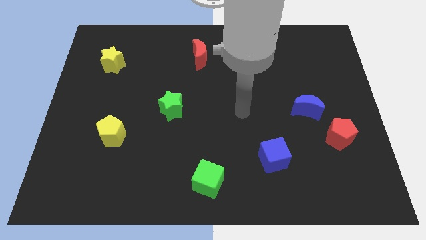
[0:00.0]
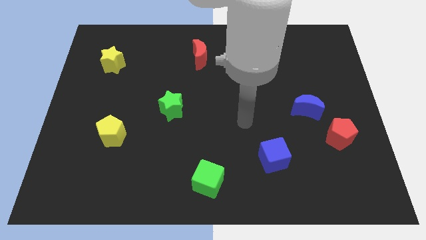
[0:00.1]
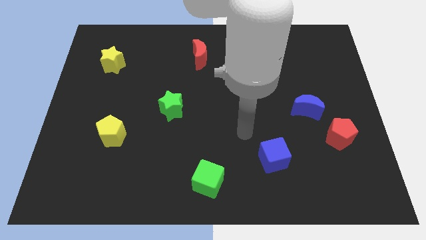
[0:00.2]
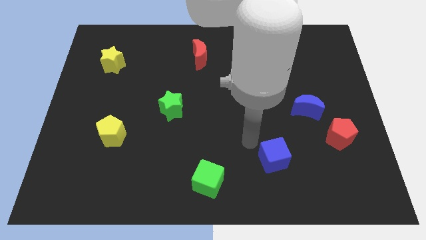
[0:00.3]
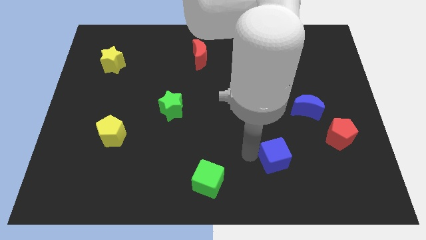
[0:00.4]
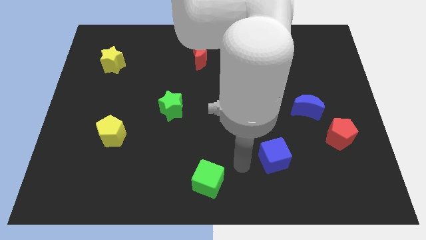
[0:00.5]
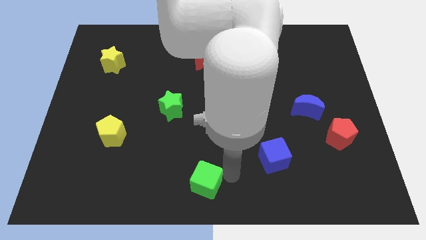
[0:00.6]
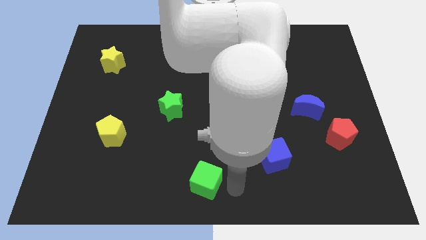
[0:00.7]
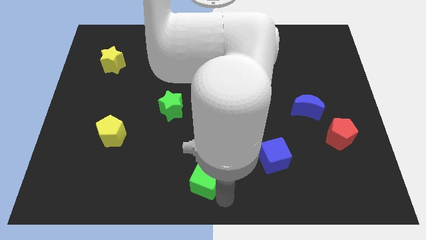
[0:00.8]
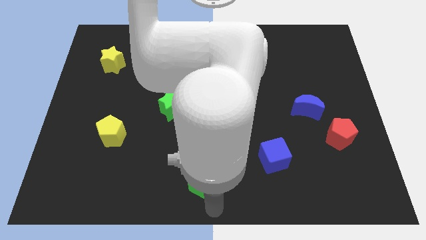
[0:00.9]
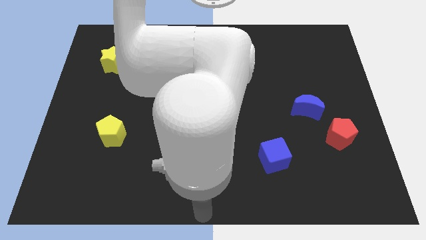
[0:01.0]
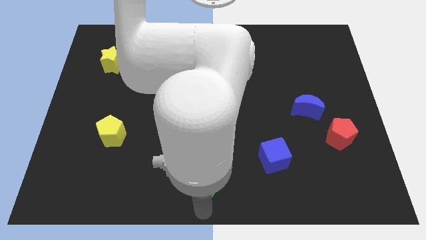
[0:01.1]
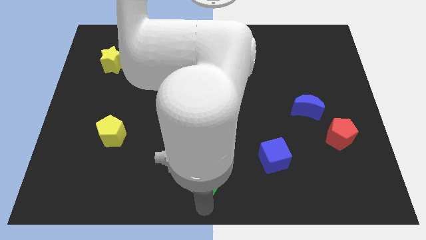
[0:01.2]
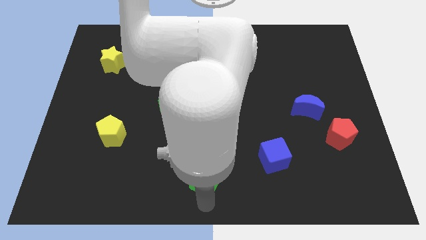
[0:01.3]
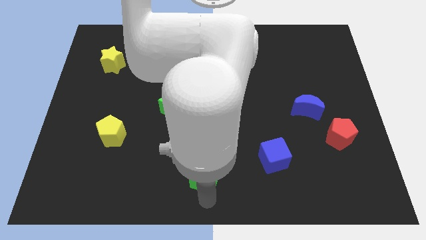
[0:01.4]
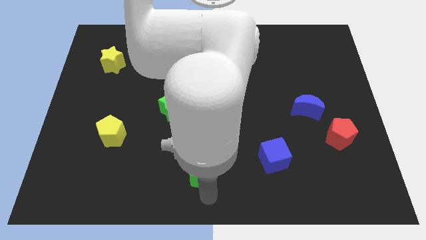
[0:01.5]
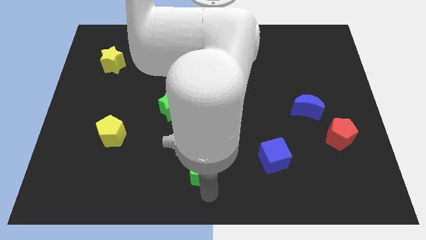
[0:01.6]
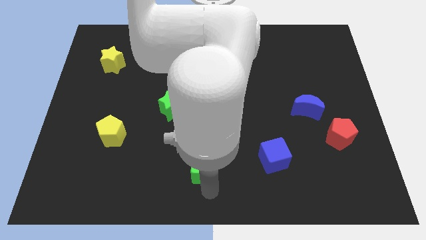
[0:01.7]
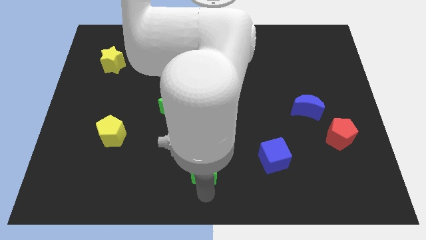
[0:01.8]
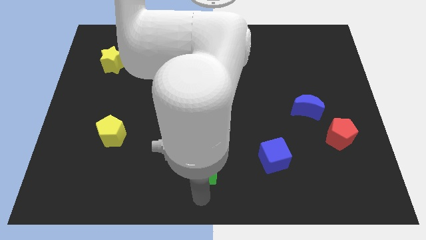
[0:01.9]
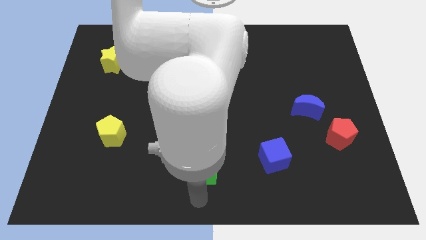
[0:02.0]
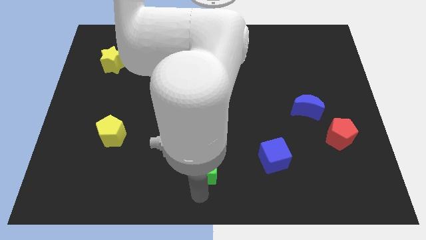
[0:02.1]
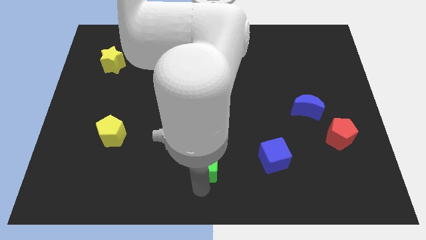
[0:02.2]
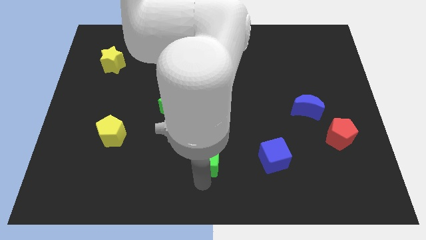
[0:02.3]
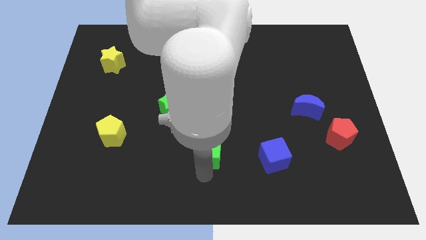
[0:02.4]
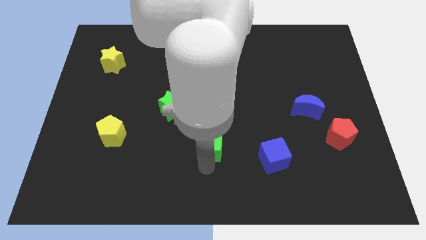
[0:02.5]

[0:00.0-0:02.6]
slide the green cube upwards slightly

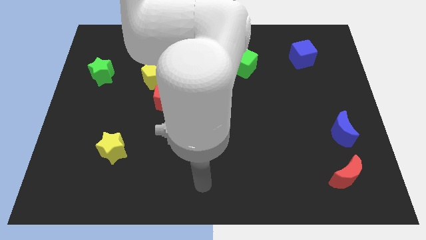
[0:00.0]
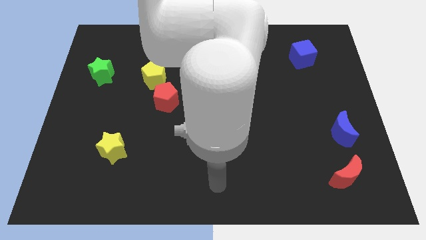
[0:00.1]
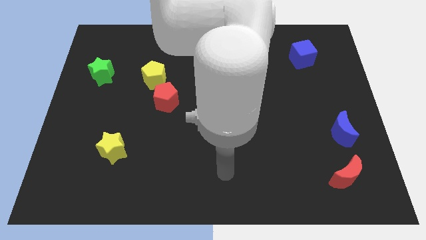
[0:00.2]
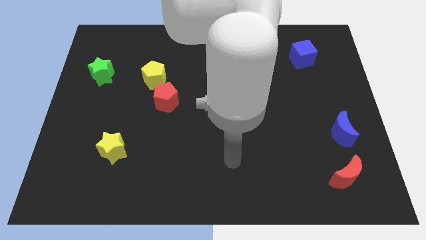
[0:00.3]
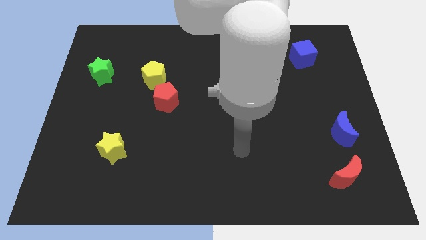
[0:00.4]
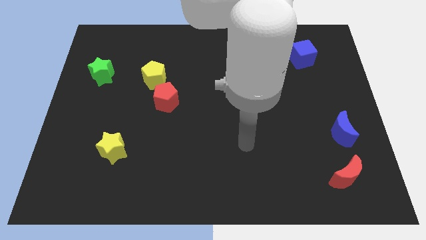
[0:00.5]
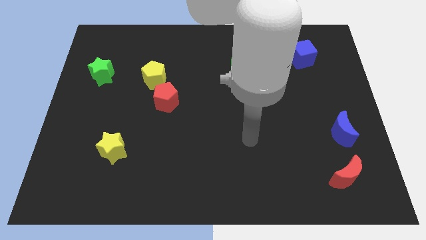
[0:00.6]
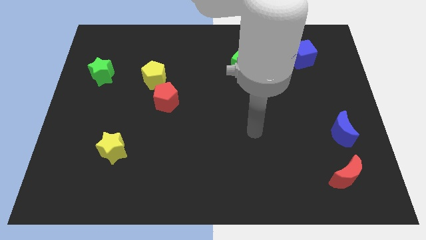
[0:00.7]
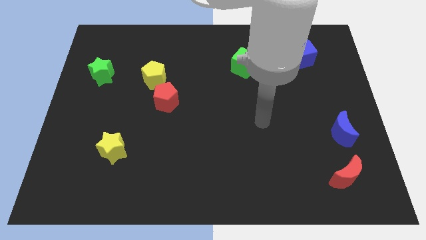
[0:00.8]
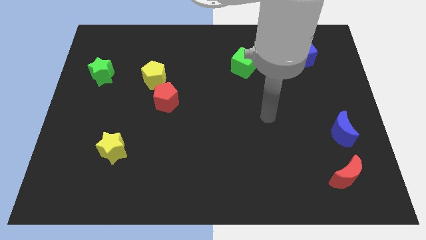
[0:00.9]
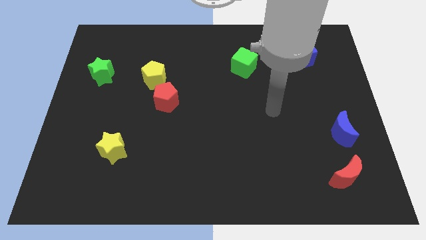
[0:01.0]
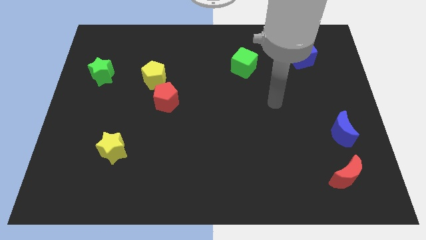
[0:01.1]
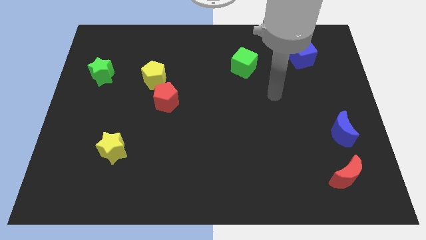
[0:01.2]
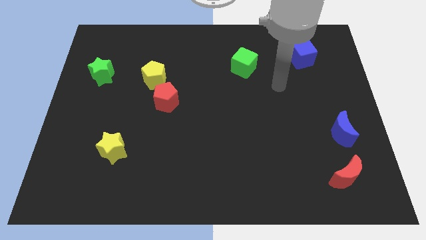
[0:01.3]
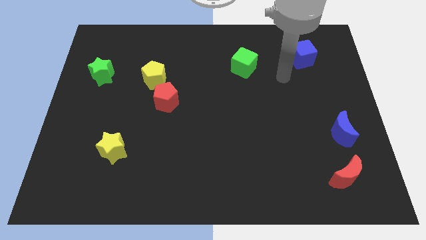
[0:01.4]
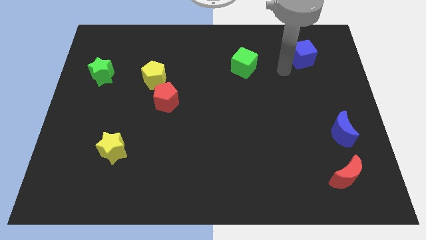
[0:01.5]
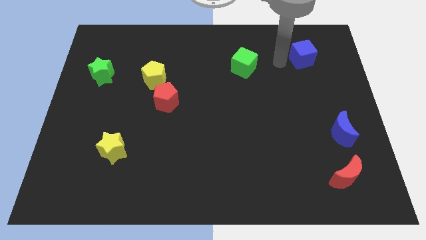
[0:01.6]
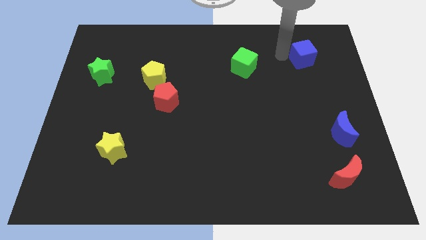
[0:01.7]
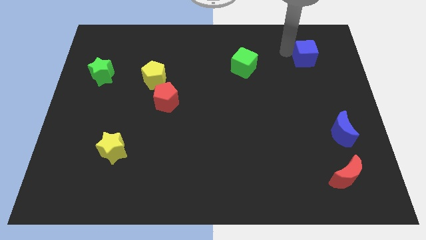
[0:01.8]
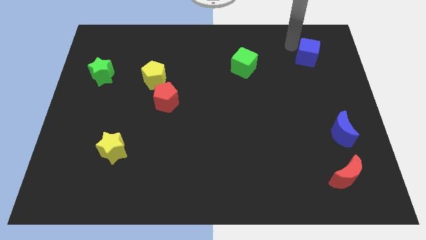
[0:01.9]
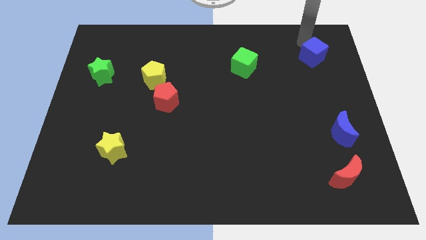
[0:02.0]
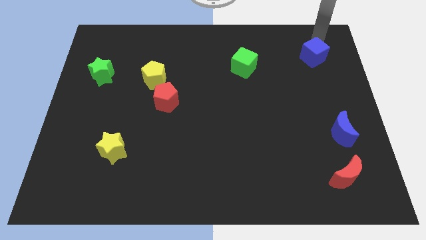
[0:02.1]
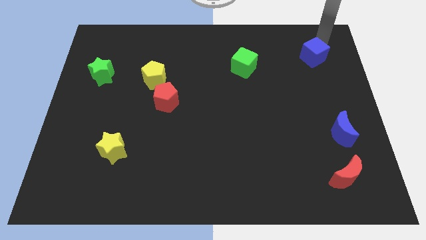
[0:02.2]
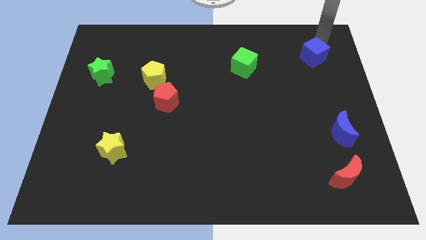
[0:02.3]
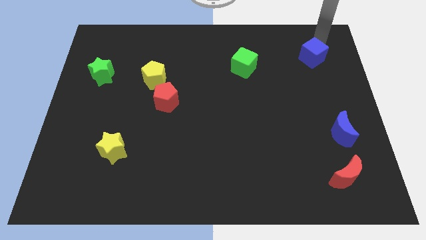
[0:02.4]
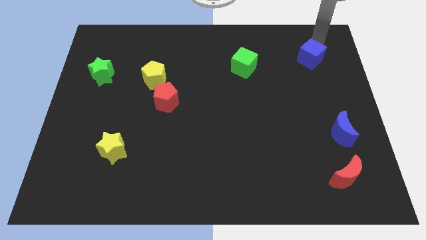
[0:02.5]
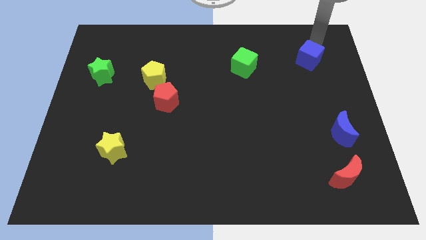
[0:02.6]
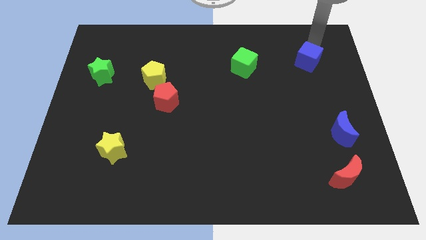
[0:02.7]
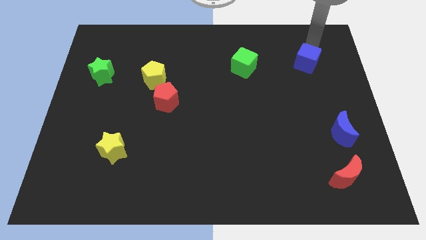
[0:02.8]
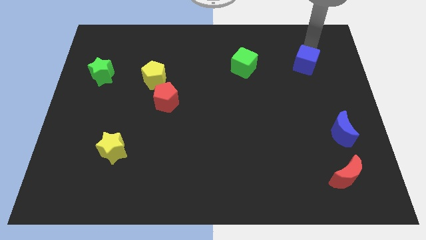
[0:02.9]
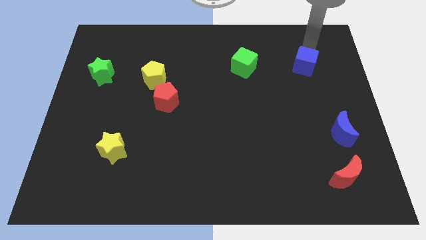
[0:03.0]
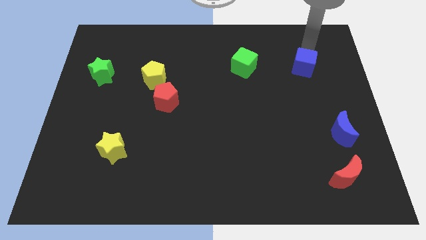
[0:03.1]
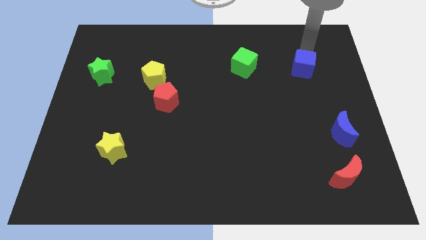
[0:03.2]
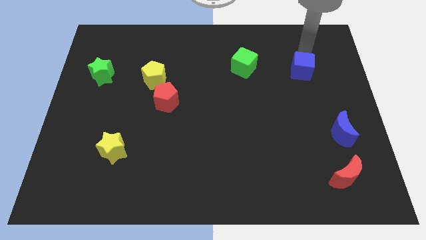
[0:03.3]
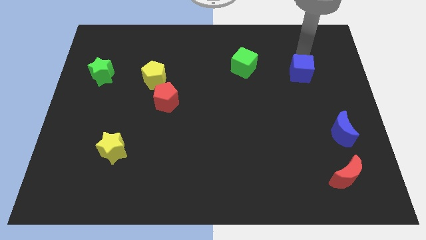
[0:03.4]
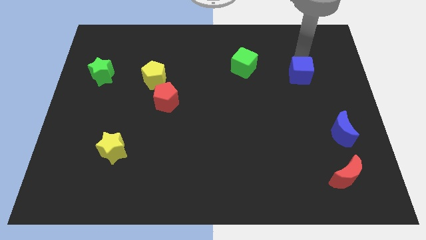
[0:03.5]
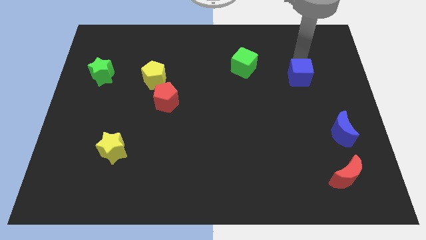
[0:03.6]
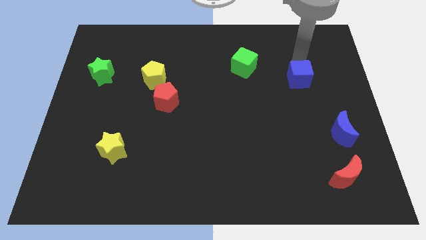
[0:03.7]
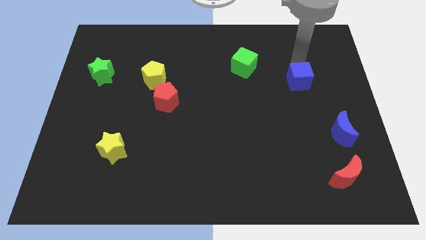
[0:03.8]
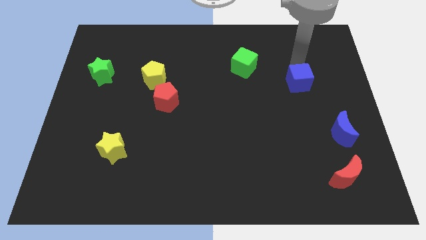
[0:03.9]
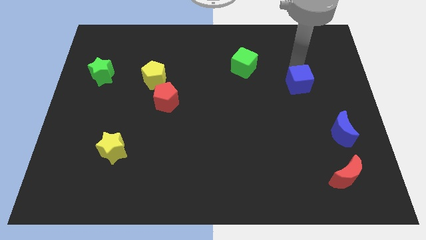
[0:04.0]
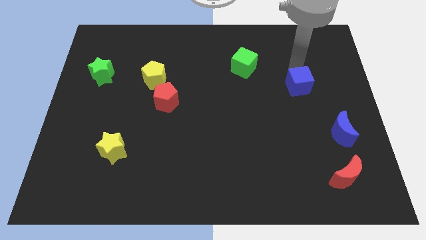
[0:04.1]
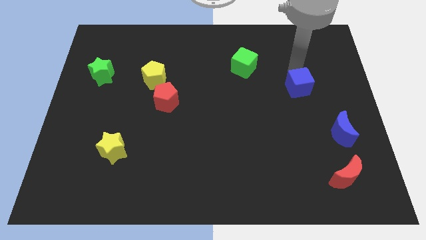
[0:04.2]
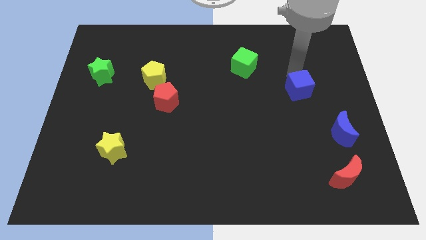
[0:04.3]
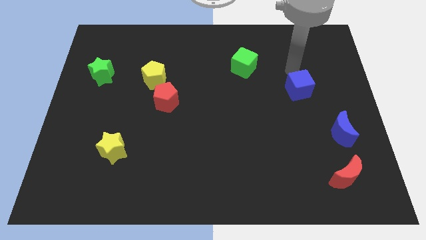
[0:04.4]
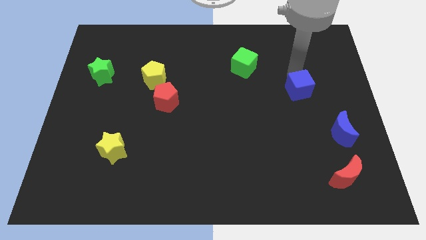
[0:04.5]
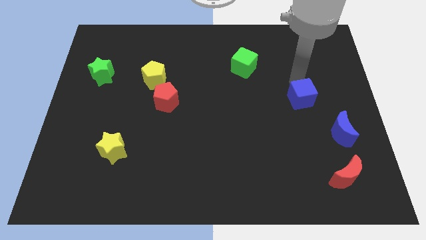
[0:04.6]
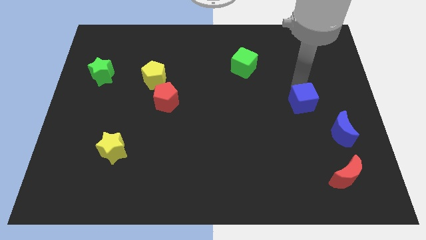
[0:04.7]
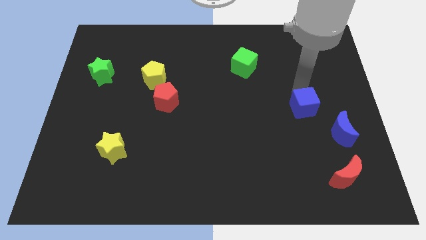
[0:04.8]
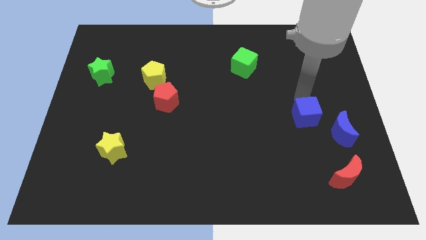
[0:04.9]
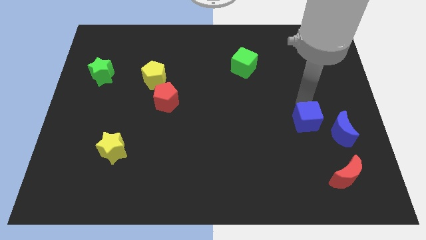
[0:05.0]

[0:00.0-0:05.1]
slide the blue cube down

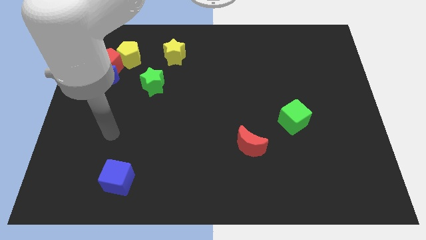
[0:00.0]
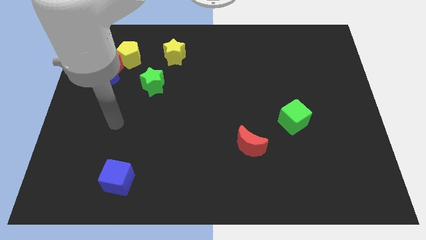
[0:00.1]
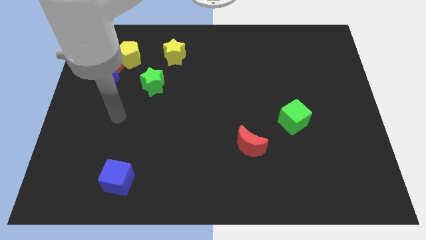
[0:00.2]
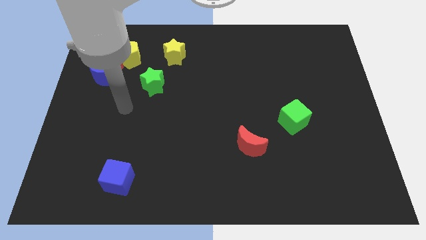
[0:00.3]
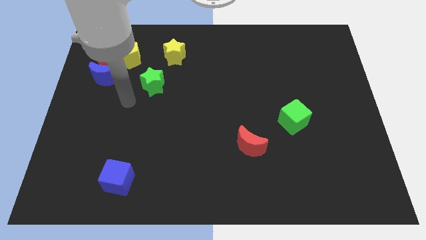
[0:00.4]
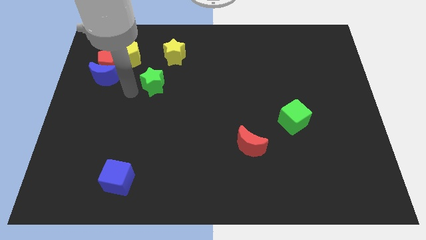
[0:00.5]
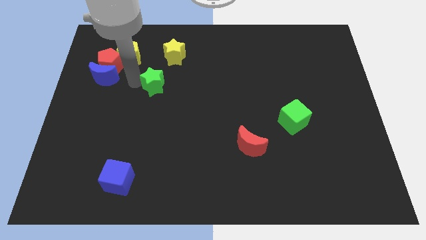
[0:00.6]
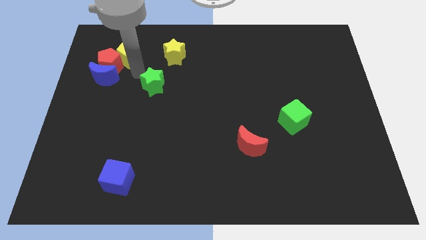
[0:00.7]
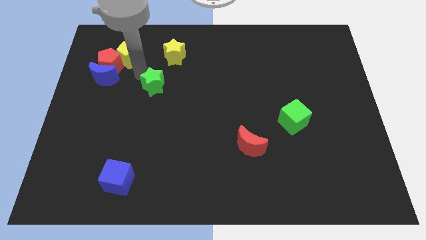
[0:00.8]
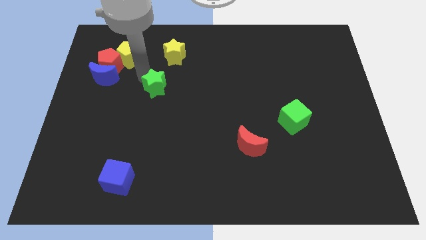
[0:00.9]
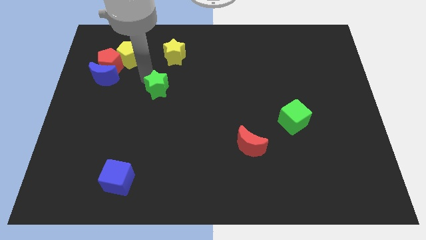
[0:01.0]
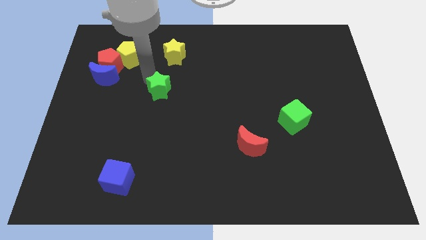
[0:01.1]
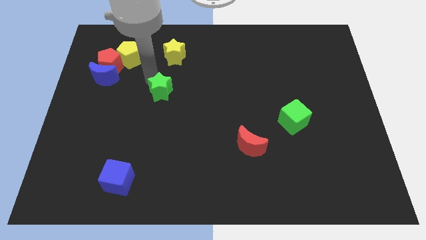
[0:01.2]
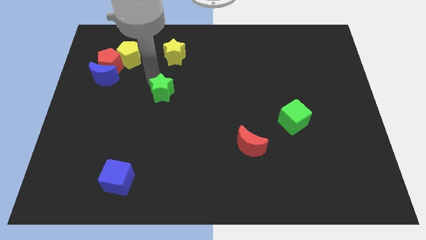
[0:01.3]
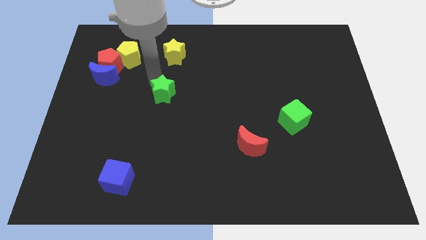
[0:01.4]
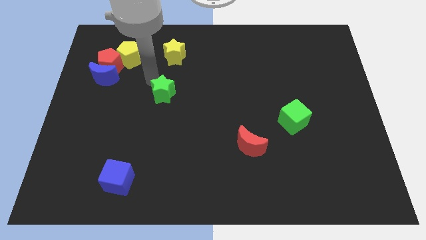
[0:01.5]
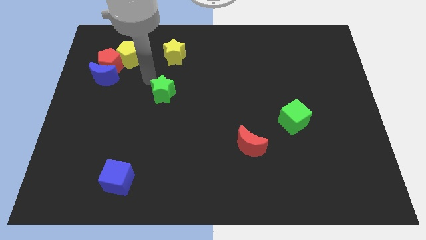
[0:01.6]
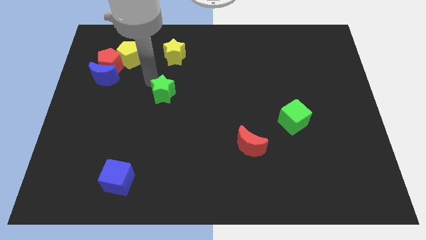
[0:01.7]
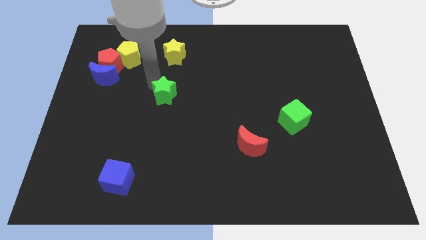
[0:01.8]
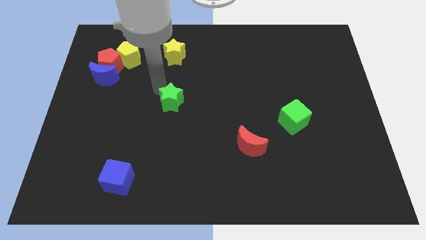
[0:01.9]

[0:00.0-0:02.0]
slightly slide the green star diagonally downwards and right
